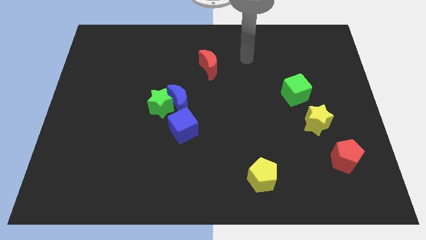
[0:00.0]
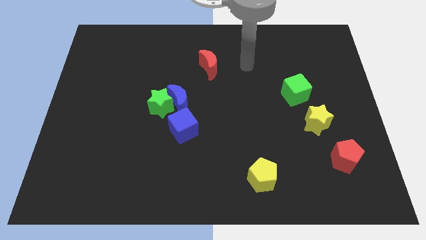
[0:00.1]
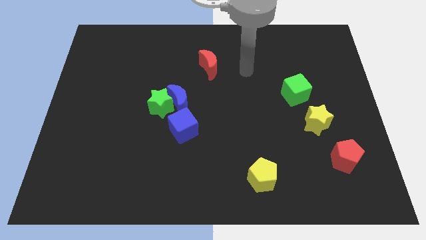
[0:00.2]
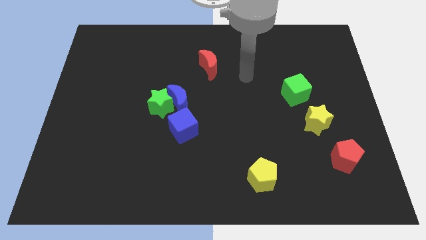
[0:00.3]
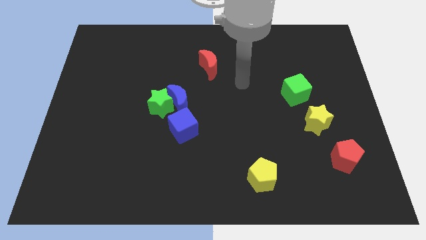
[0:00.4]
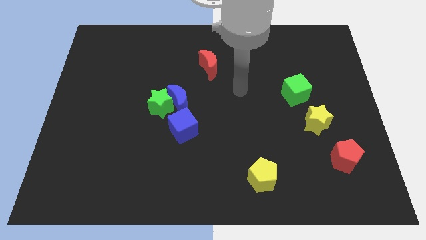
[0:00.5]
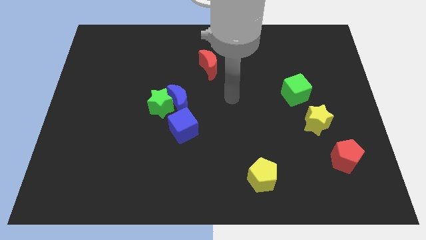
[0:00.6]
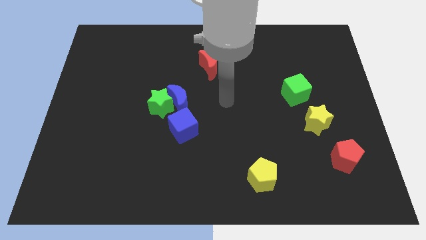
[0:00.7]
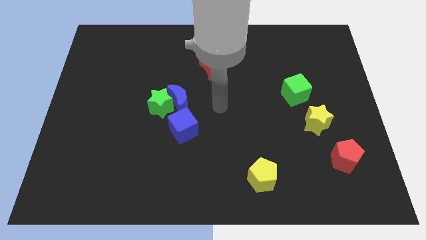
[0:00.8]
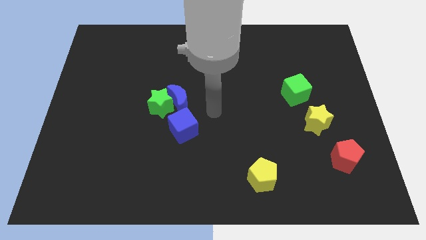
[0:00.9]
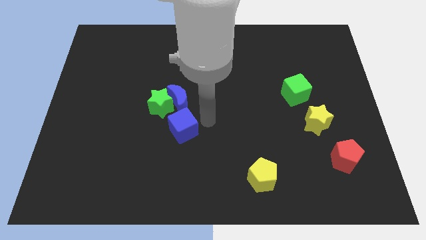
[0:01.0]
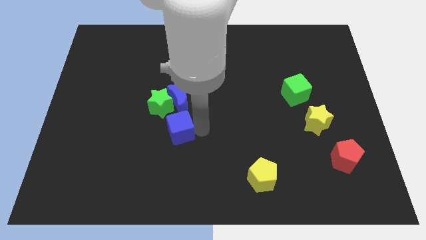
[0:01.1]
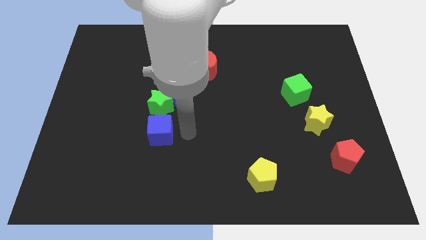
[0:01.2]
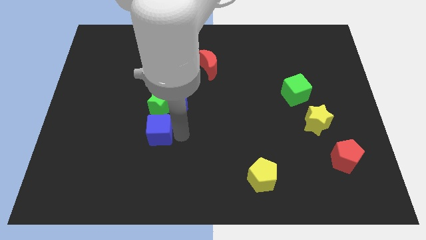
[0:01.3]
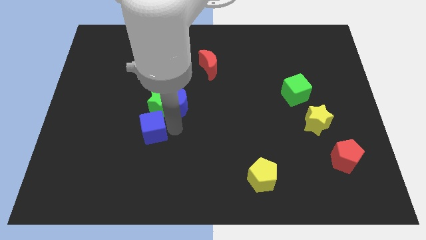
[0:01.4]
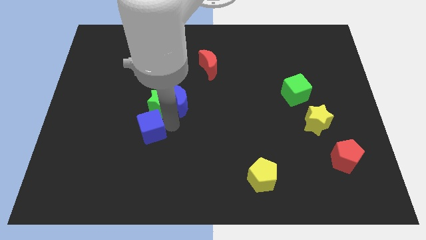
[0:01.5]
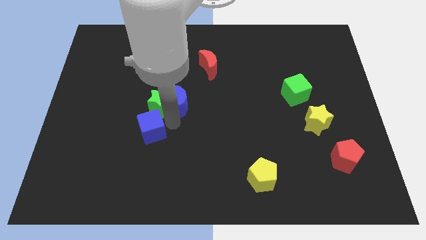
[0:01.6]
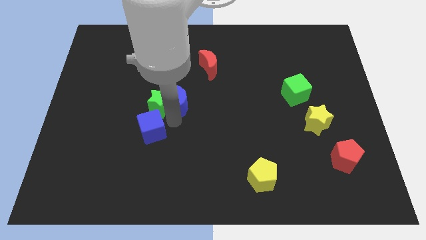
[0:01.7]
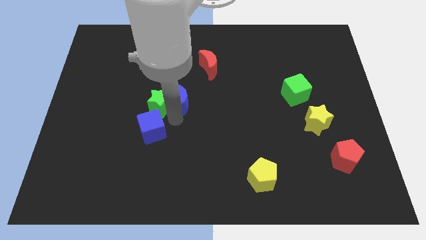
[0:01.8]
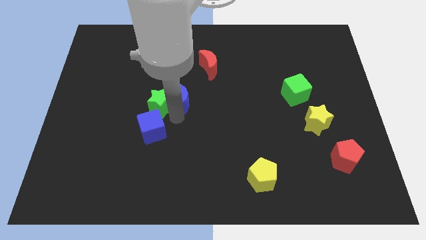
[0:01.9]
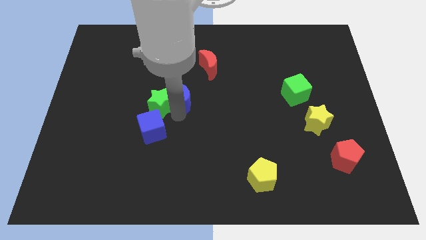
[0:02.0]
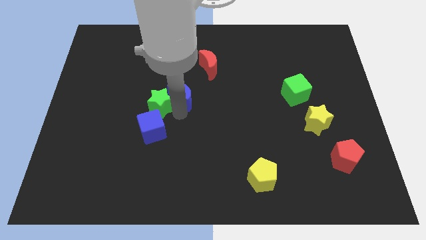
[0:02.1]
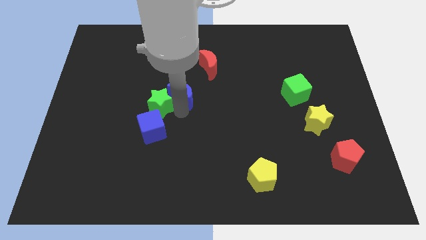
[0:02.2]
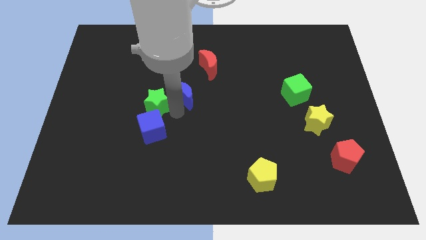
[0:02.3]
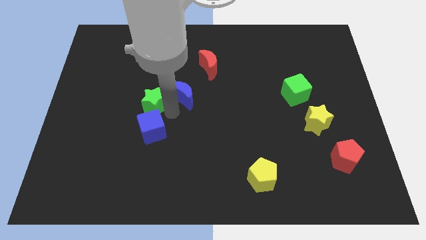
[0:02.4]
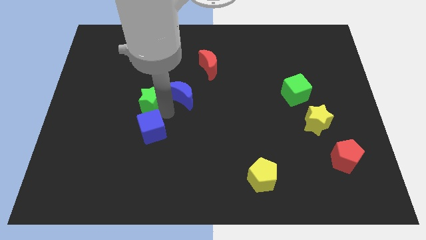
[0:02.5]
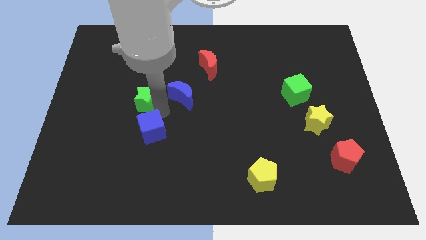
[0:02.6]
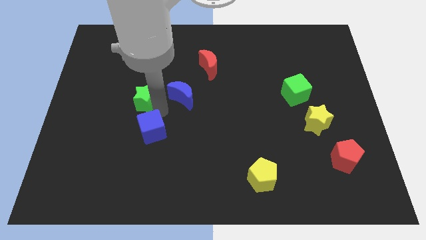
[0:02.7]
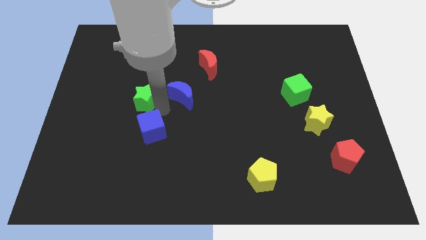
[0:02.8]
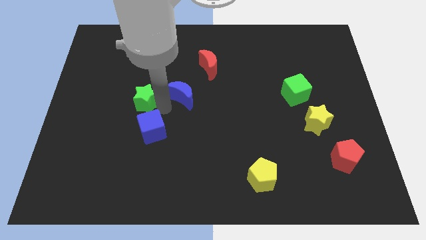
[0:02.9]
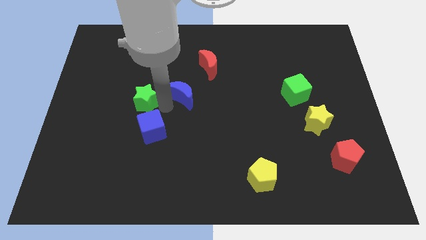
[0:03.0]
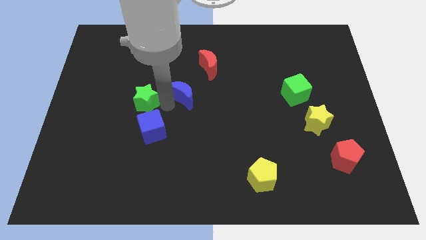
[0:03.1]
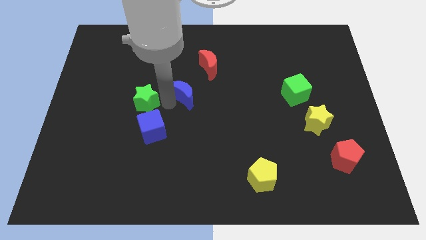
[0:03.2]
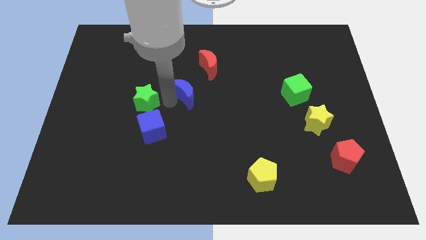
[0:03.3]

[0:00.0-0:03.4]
separate the blue moon from the green star and blue cube

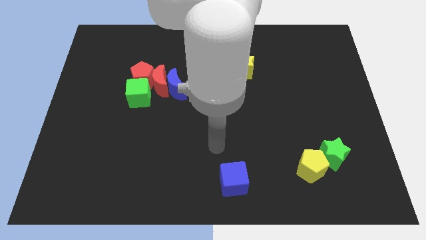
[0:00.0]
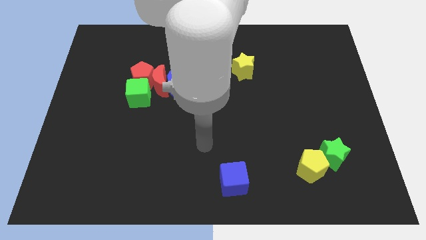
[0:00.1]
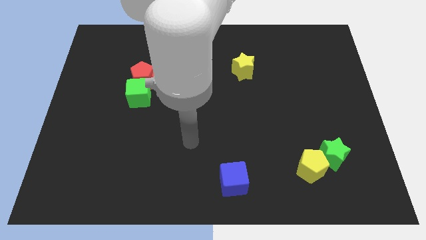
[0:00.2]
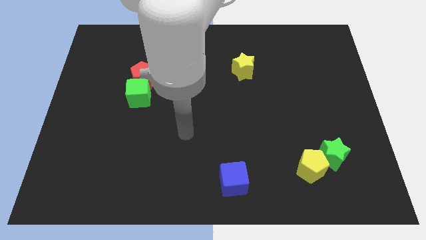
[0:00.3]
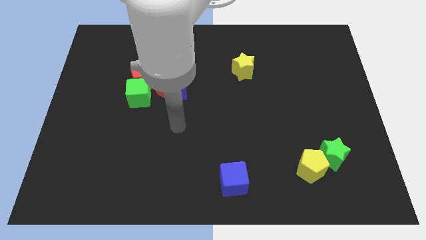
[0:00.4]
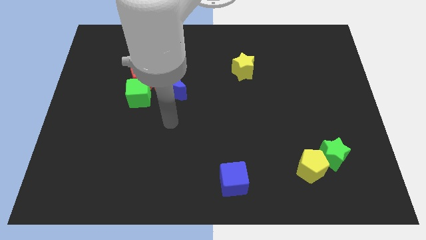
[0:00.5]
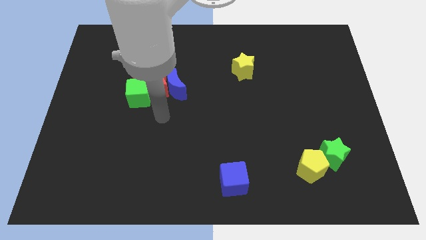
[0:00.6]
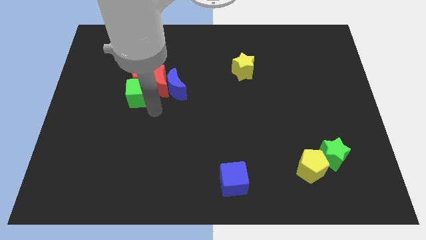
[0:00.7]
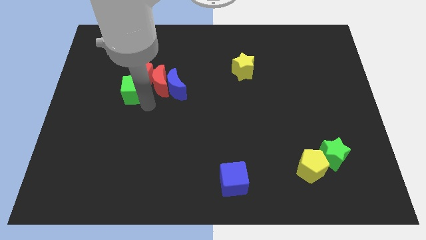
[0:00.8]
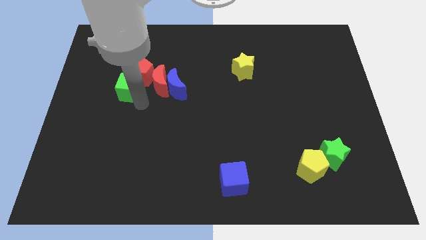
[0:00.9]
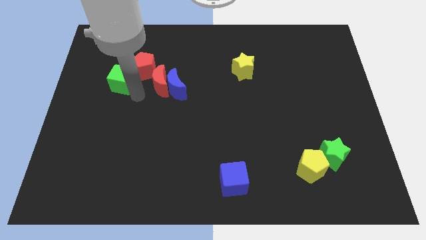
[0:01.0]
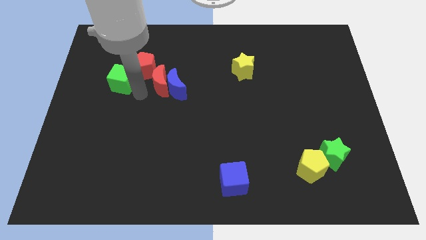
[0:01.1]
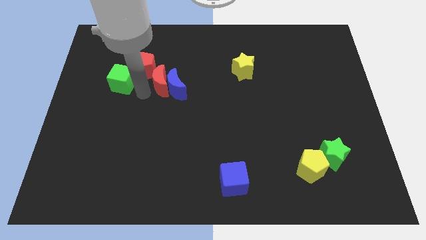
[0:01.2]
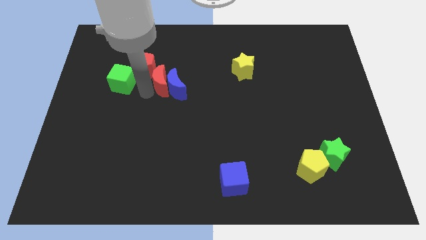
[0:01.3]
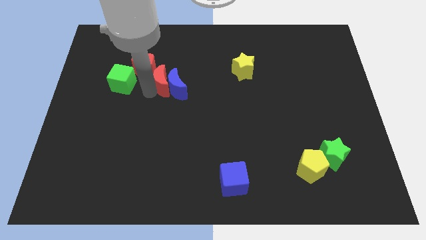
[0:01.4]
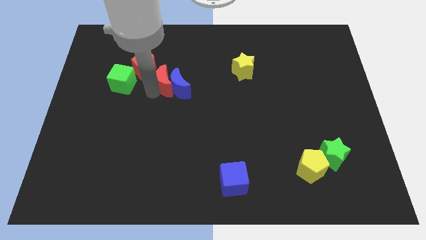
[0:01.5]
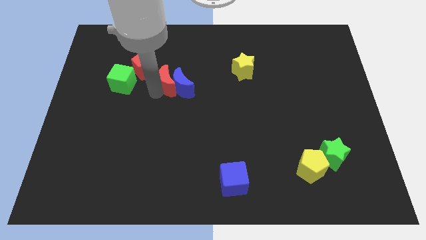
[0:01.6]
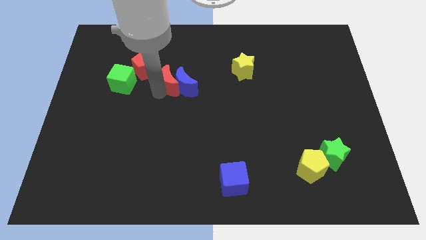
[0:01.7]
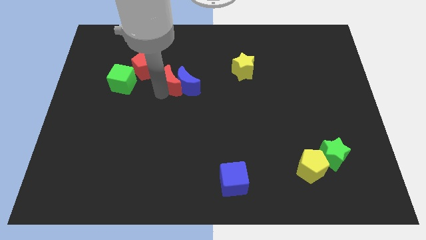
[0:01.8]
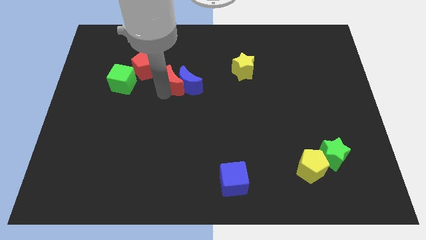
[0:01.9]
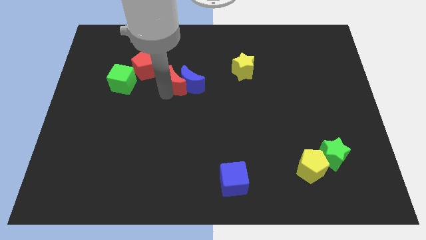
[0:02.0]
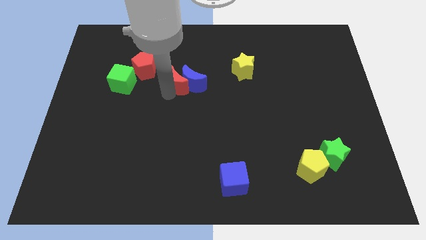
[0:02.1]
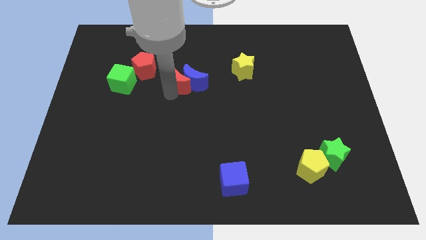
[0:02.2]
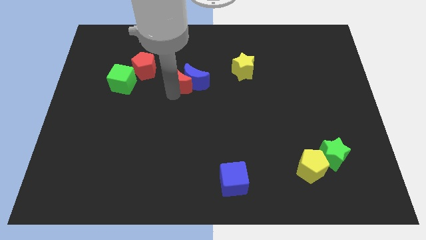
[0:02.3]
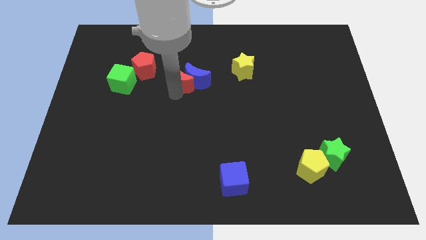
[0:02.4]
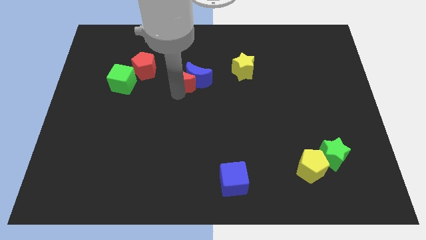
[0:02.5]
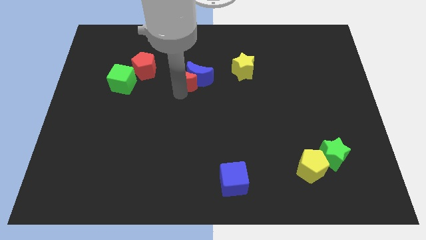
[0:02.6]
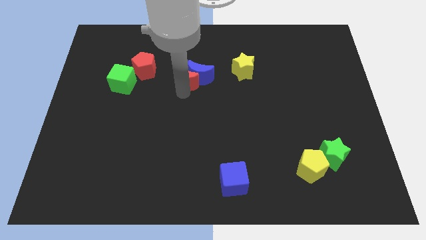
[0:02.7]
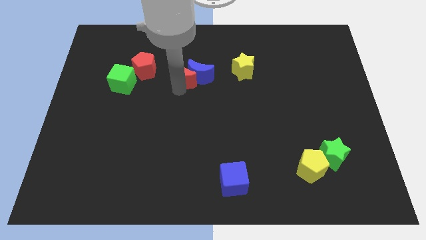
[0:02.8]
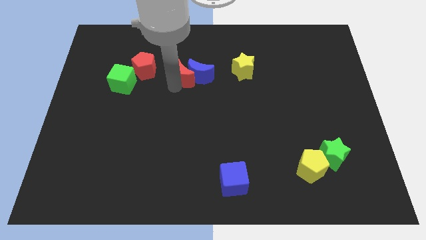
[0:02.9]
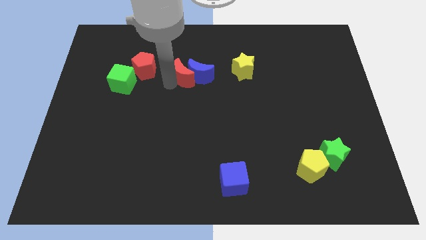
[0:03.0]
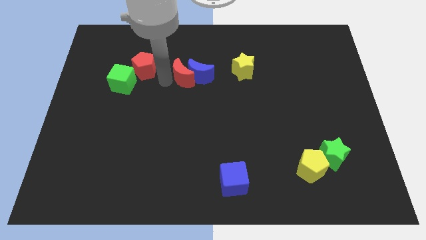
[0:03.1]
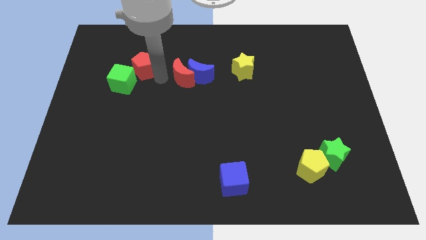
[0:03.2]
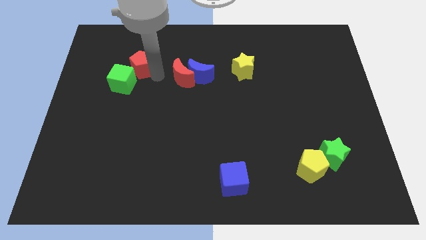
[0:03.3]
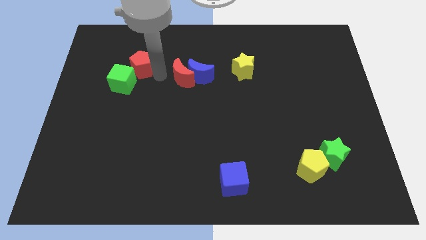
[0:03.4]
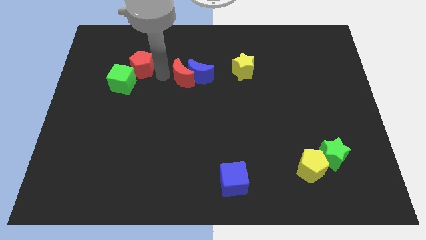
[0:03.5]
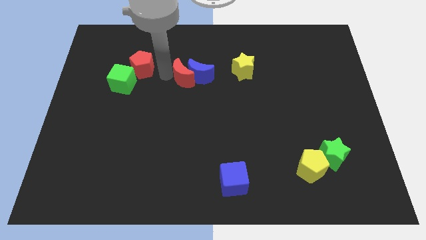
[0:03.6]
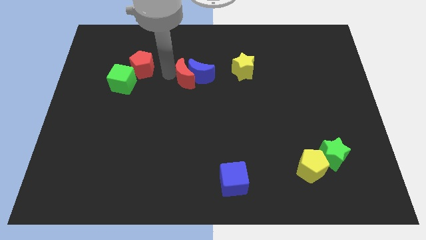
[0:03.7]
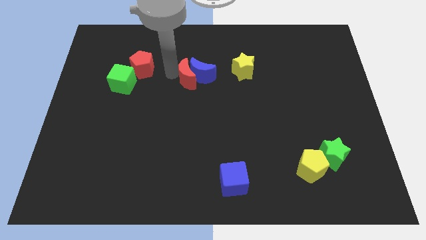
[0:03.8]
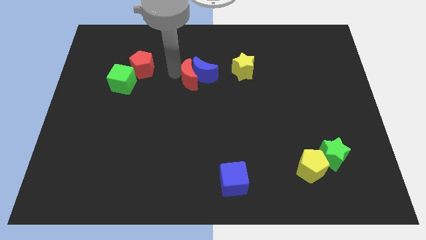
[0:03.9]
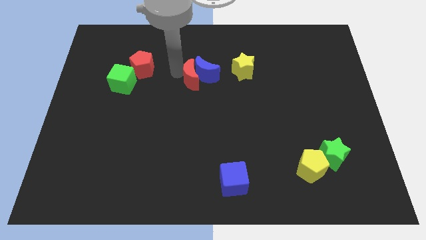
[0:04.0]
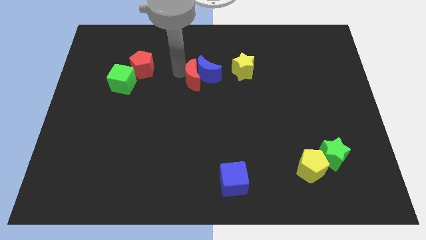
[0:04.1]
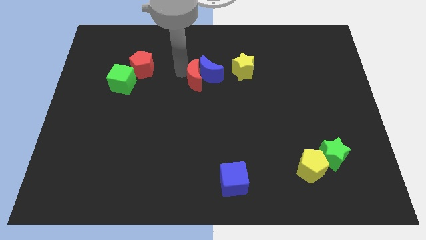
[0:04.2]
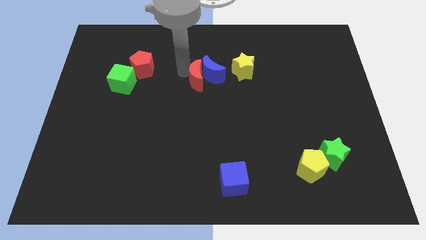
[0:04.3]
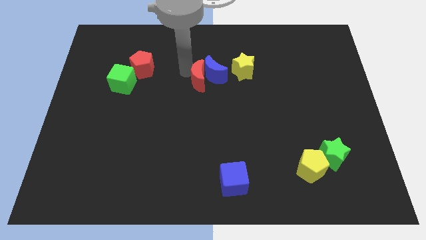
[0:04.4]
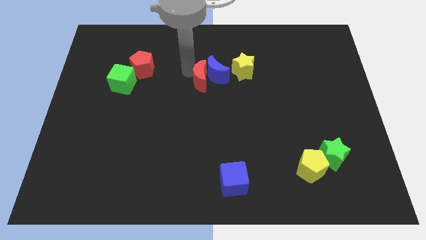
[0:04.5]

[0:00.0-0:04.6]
move the red moon away from the group of blocks

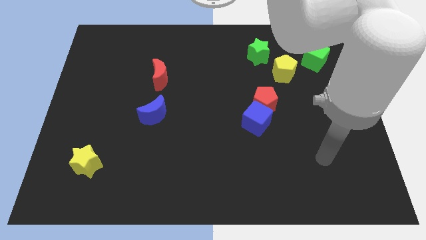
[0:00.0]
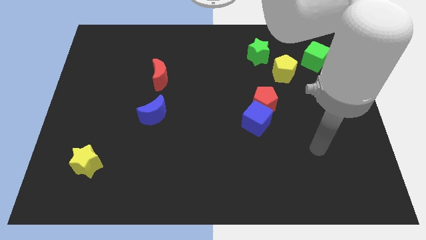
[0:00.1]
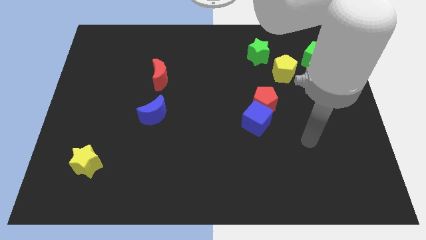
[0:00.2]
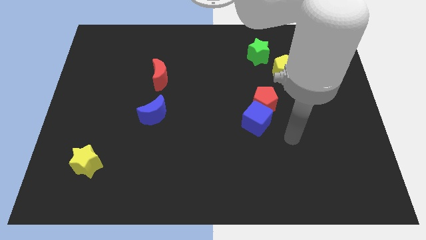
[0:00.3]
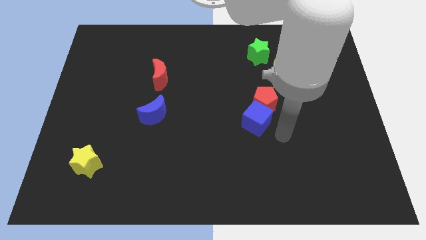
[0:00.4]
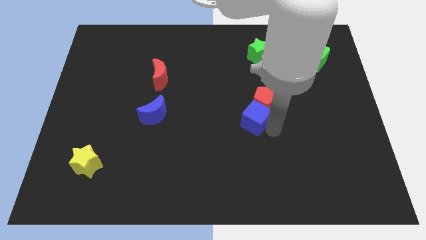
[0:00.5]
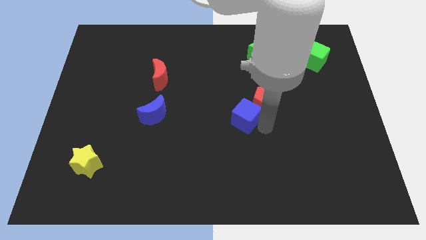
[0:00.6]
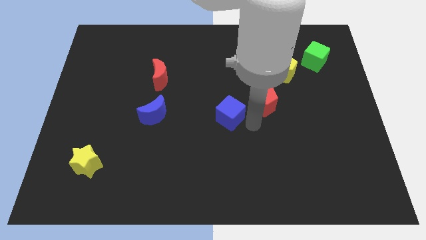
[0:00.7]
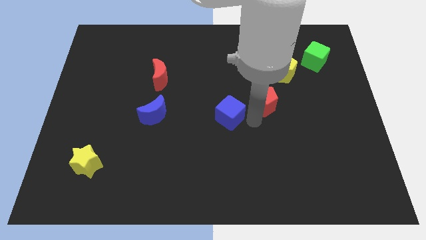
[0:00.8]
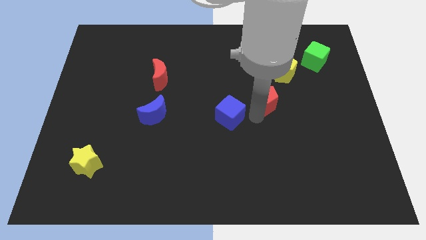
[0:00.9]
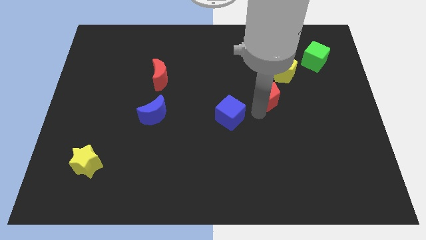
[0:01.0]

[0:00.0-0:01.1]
pull the red pentagon apart from the blue cube

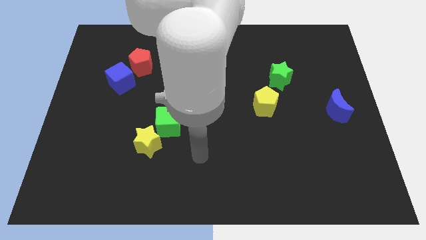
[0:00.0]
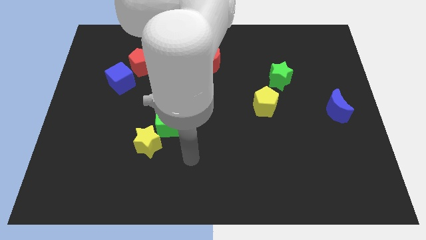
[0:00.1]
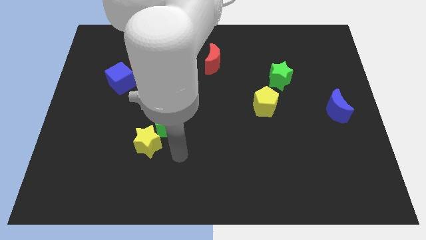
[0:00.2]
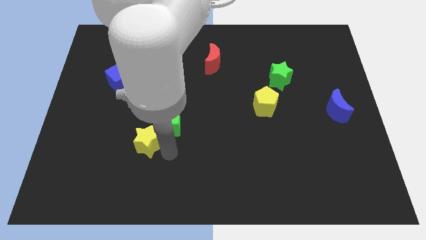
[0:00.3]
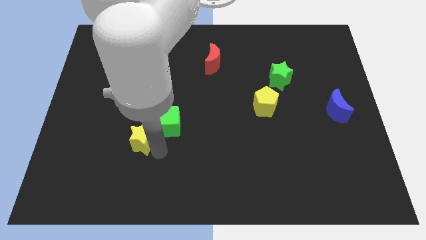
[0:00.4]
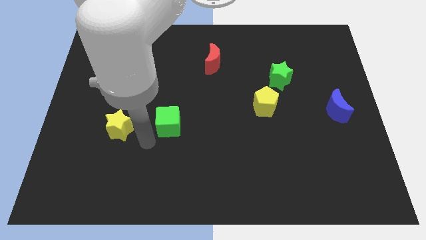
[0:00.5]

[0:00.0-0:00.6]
pull the green cube apart from the yellow star
